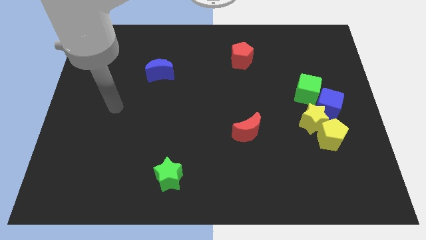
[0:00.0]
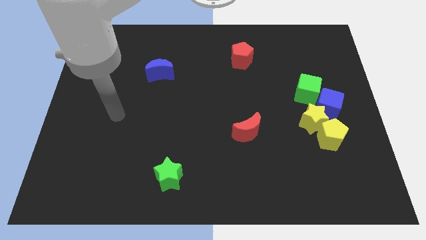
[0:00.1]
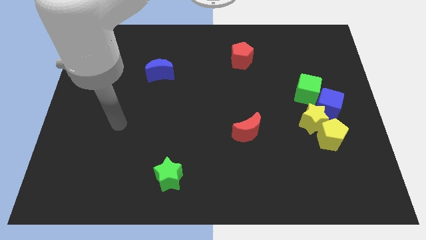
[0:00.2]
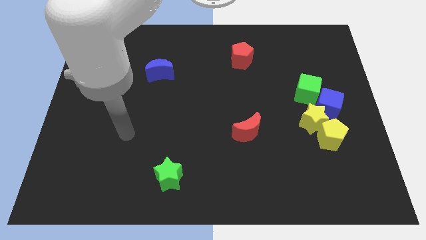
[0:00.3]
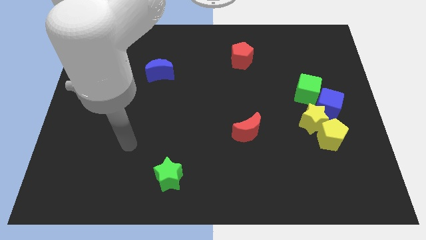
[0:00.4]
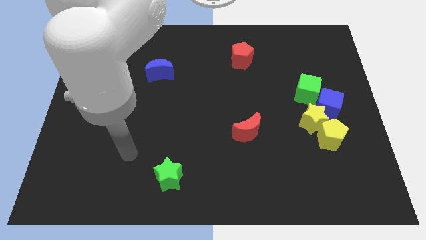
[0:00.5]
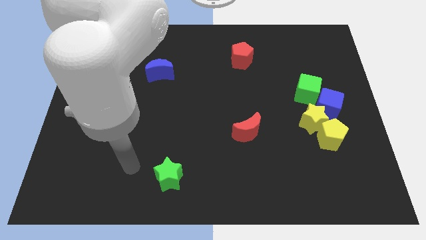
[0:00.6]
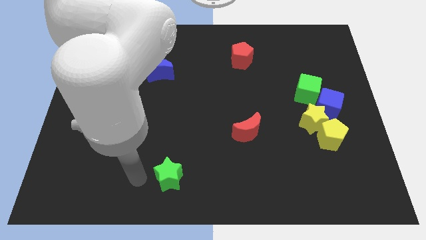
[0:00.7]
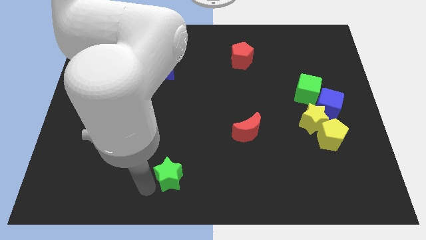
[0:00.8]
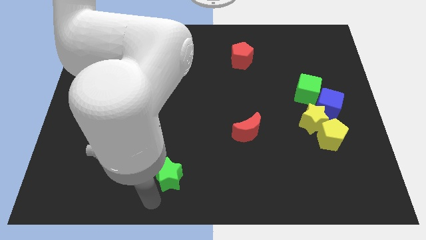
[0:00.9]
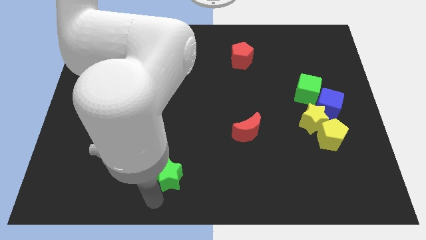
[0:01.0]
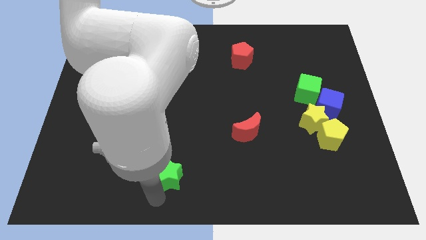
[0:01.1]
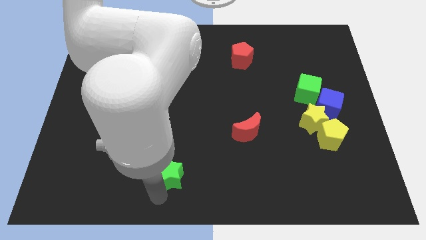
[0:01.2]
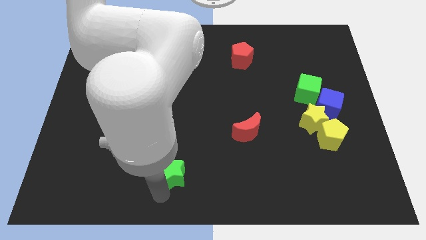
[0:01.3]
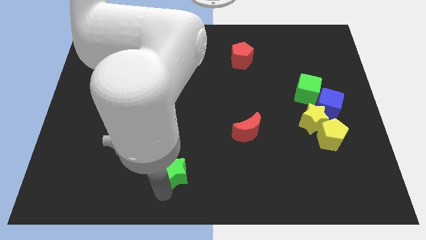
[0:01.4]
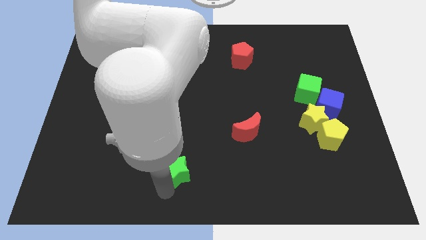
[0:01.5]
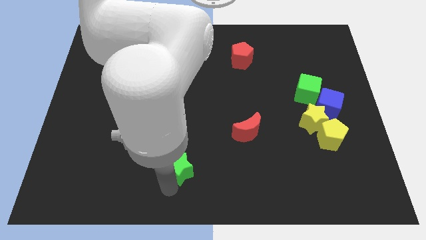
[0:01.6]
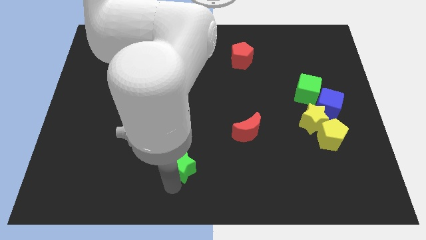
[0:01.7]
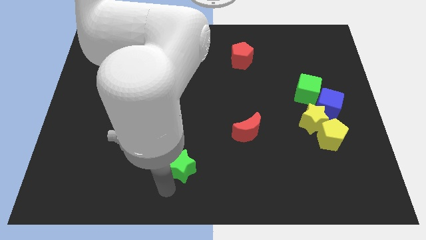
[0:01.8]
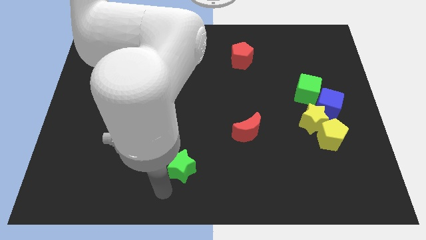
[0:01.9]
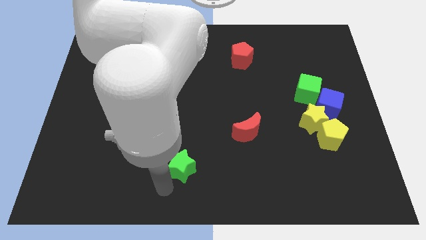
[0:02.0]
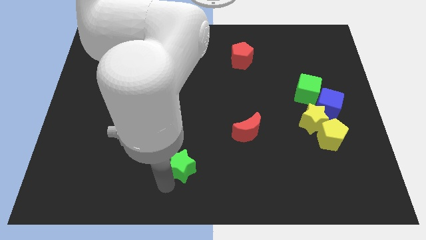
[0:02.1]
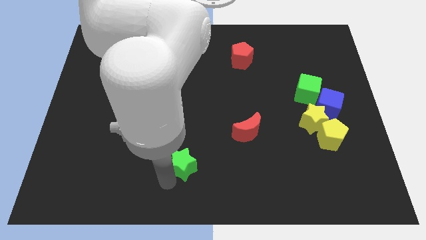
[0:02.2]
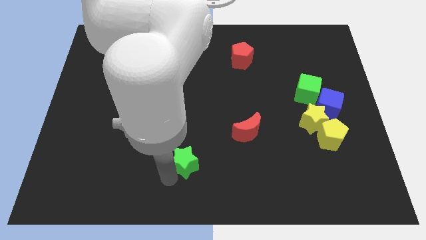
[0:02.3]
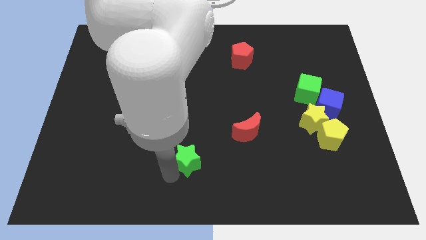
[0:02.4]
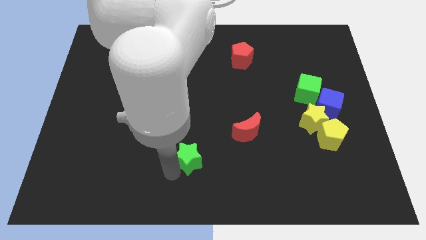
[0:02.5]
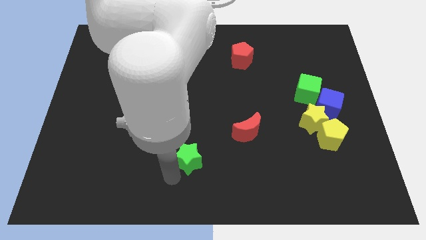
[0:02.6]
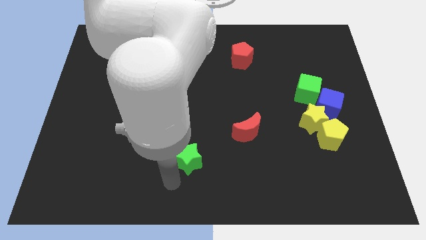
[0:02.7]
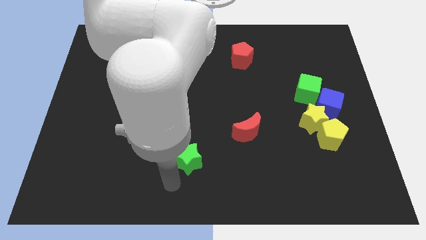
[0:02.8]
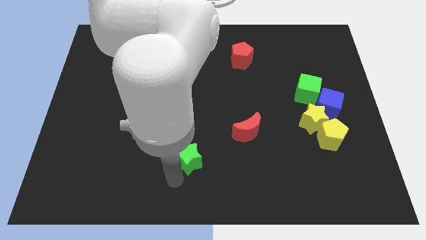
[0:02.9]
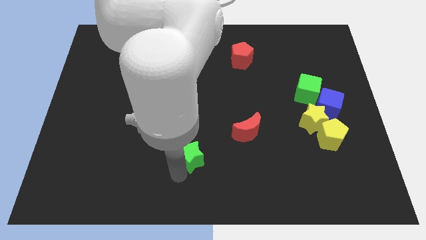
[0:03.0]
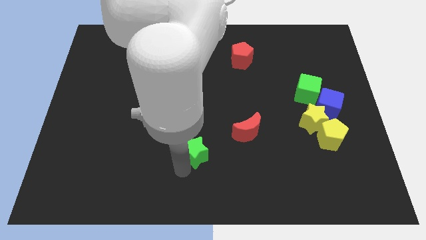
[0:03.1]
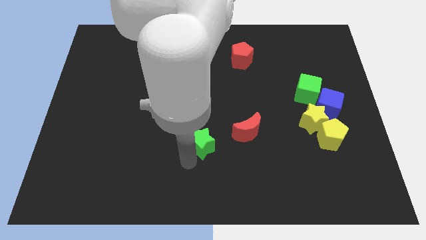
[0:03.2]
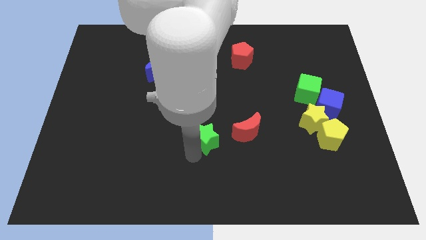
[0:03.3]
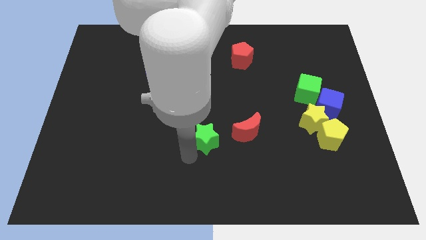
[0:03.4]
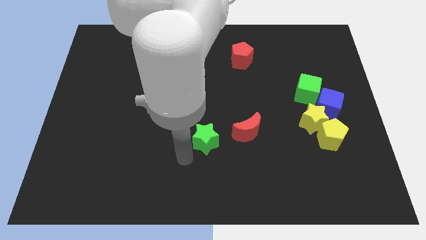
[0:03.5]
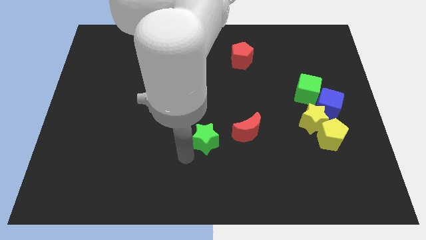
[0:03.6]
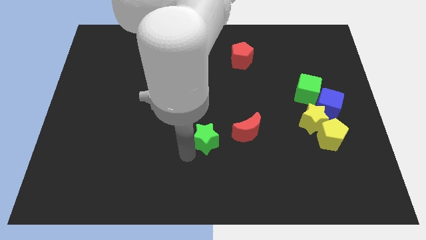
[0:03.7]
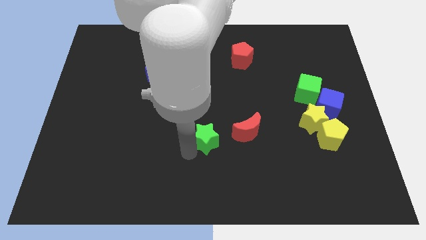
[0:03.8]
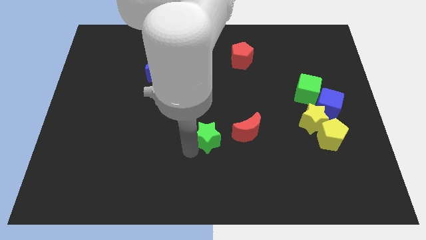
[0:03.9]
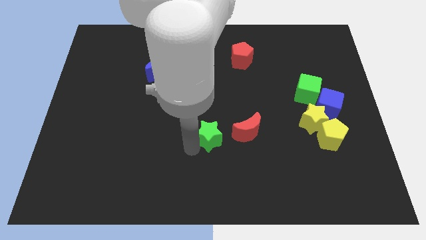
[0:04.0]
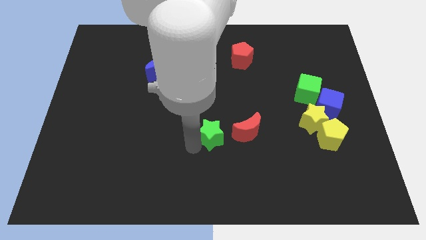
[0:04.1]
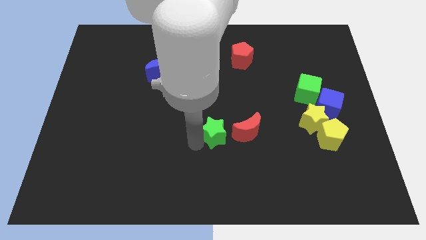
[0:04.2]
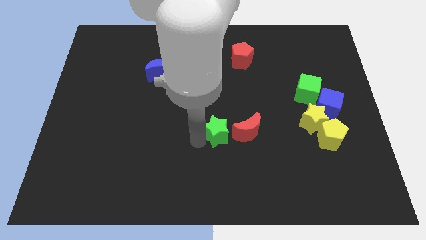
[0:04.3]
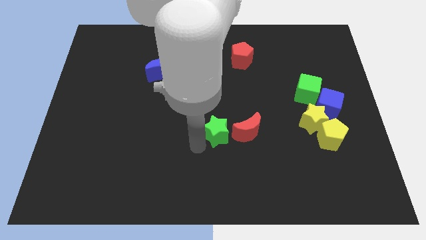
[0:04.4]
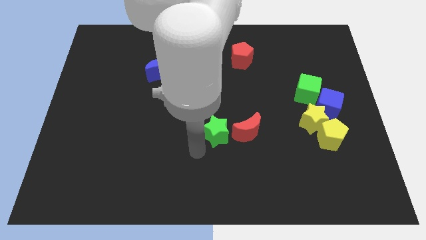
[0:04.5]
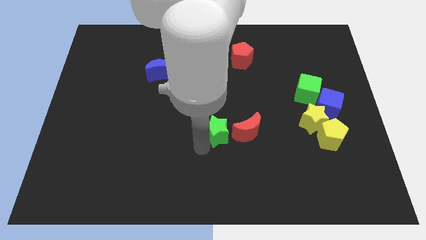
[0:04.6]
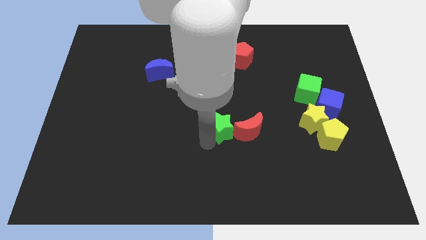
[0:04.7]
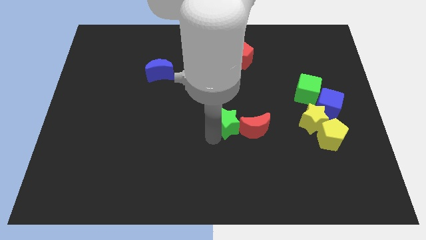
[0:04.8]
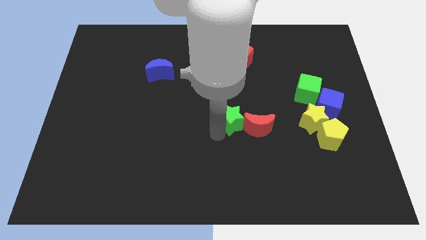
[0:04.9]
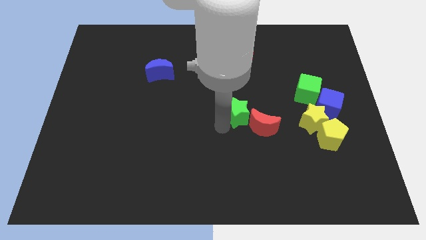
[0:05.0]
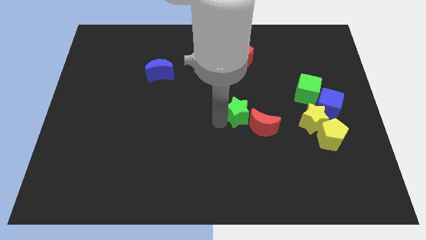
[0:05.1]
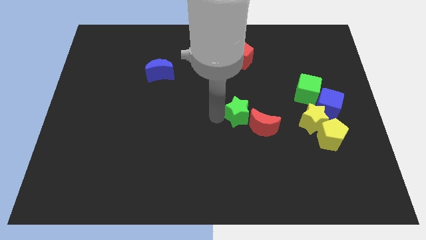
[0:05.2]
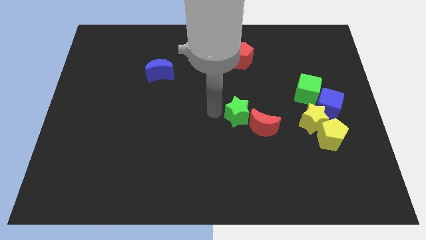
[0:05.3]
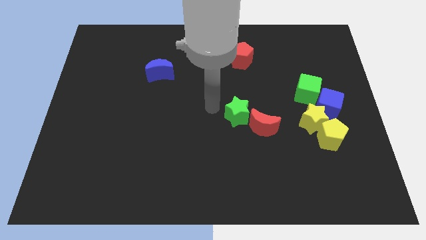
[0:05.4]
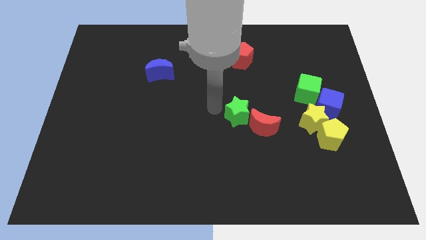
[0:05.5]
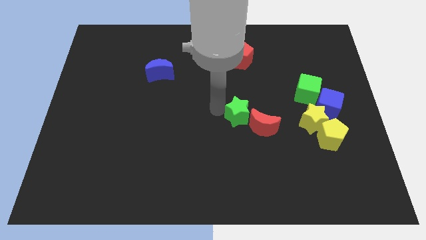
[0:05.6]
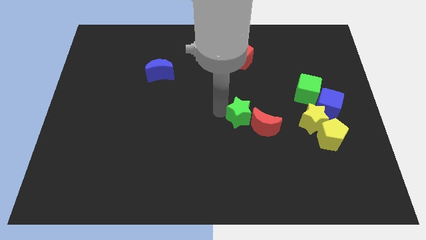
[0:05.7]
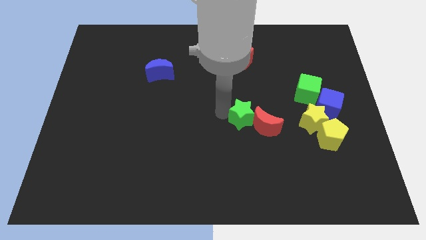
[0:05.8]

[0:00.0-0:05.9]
move the green star left of the yellow star

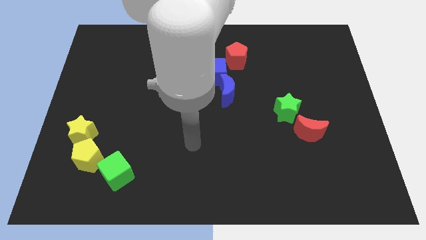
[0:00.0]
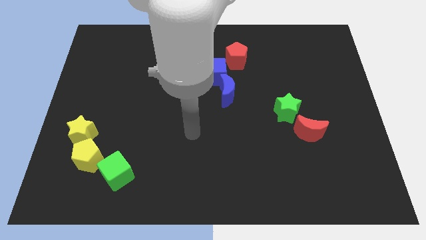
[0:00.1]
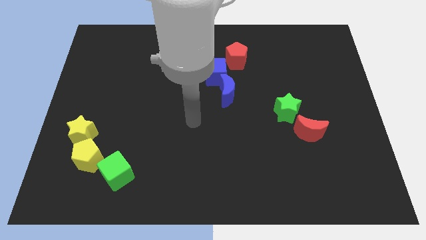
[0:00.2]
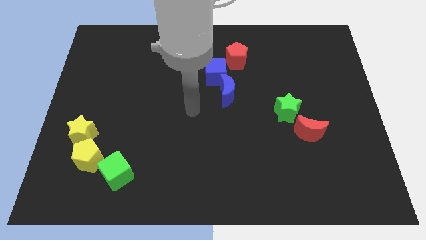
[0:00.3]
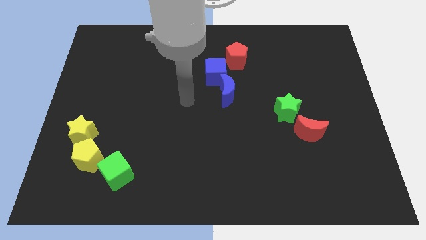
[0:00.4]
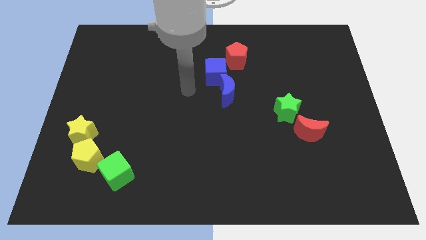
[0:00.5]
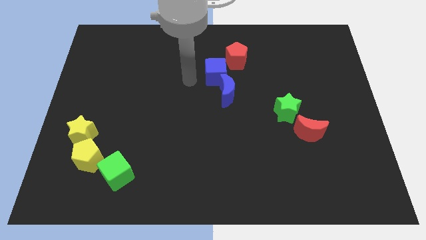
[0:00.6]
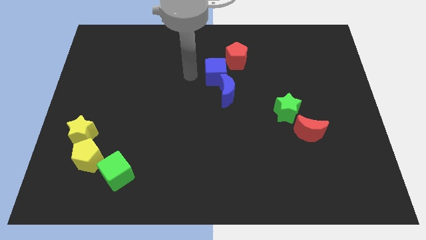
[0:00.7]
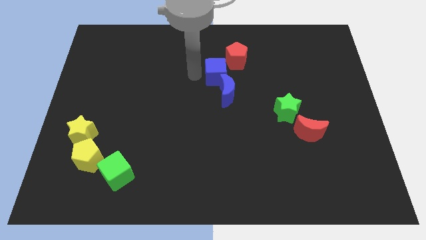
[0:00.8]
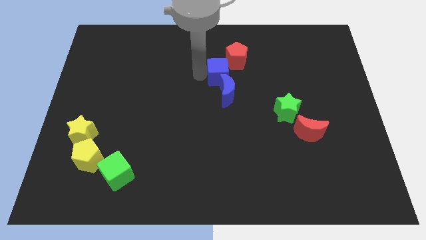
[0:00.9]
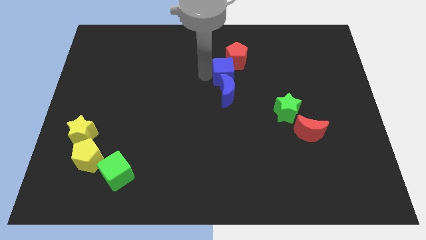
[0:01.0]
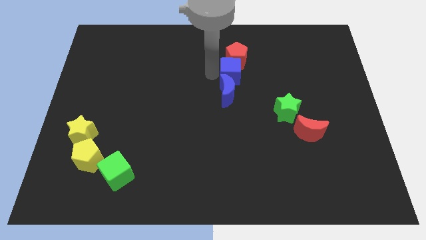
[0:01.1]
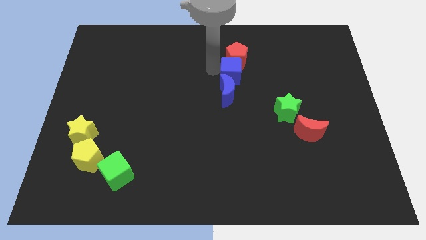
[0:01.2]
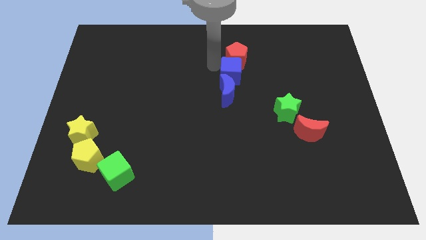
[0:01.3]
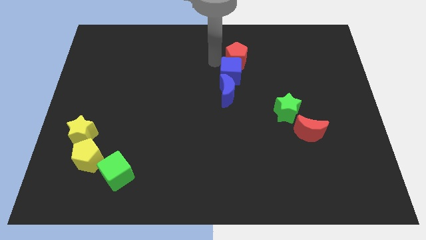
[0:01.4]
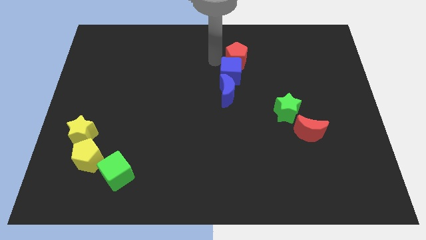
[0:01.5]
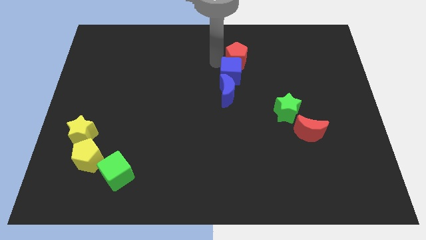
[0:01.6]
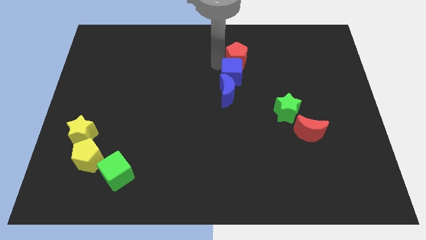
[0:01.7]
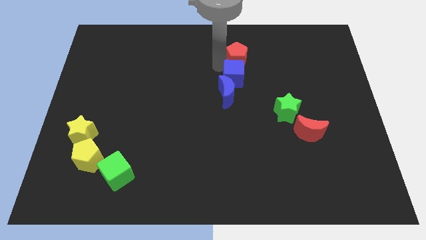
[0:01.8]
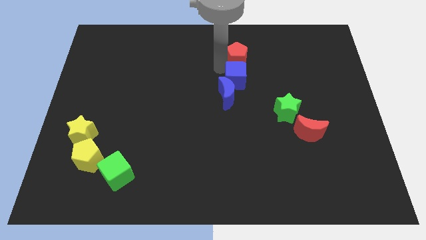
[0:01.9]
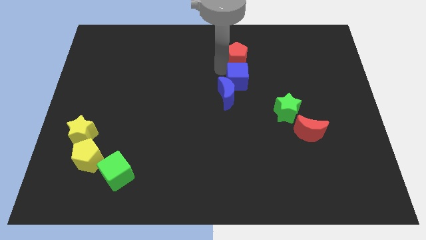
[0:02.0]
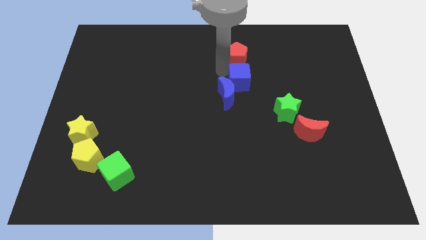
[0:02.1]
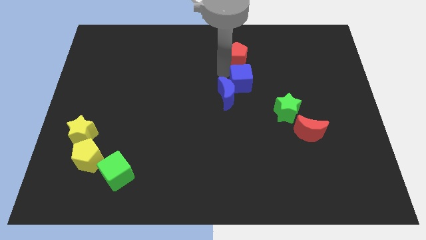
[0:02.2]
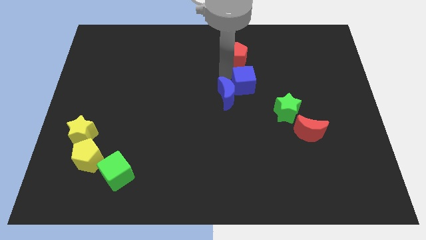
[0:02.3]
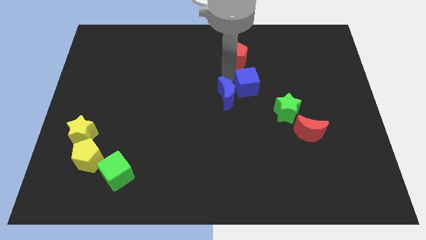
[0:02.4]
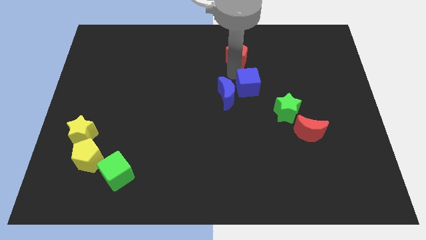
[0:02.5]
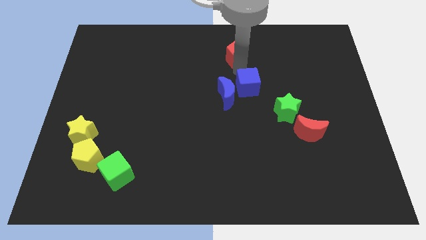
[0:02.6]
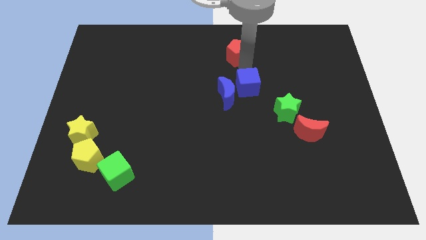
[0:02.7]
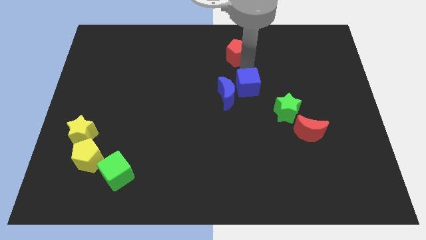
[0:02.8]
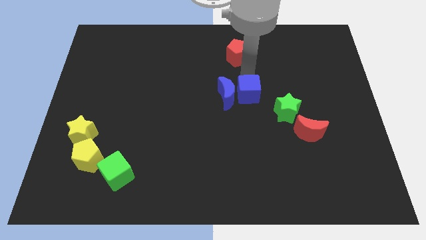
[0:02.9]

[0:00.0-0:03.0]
move the blue cube to the bottom right of the blue moon
